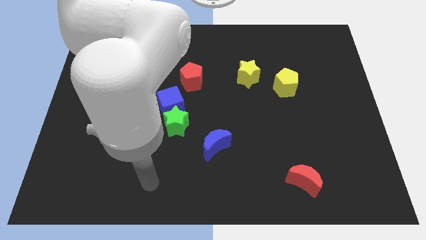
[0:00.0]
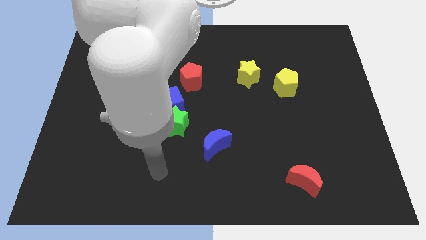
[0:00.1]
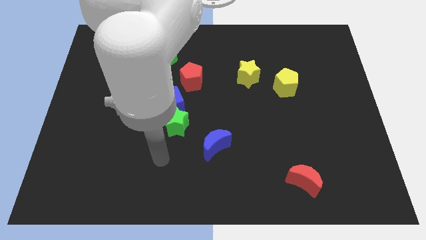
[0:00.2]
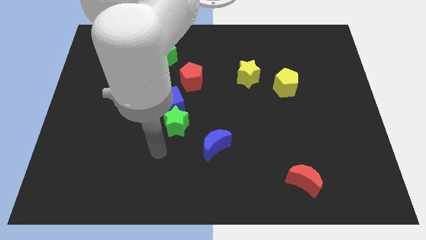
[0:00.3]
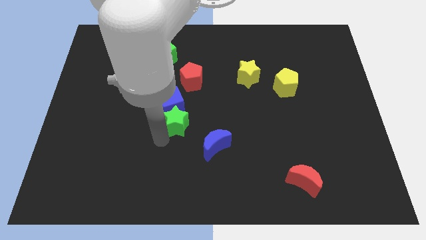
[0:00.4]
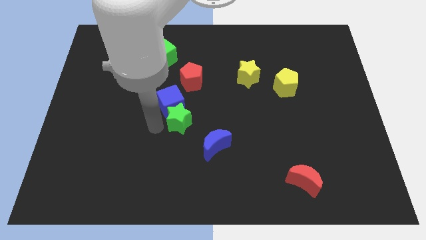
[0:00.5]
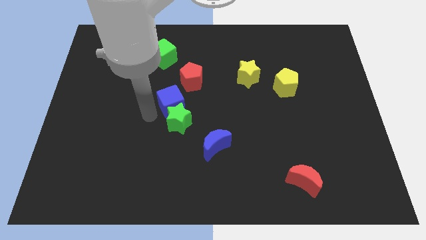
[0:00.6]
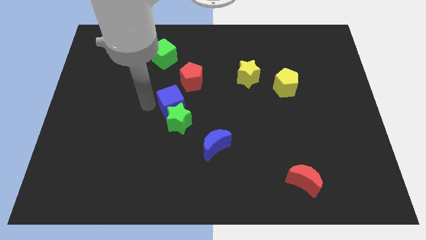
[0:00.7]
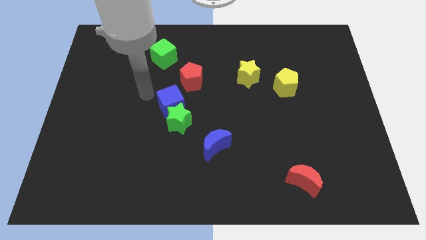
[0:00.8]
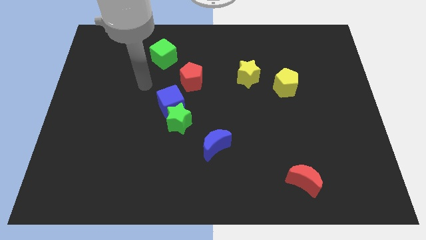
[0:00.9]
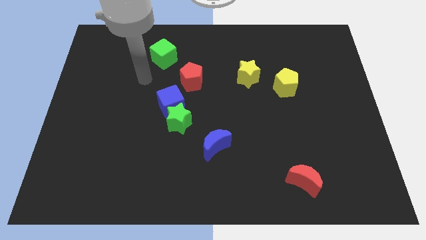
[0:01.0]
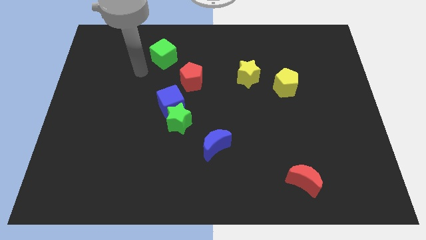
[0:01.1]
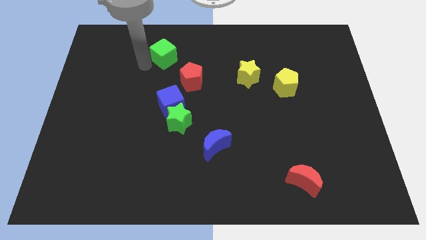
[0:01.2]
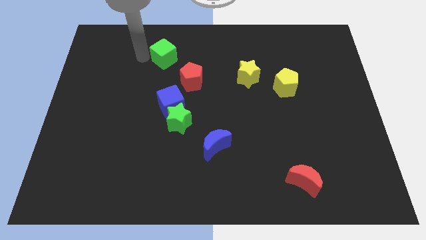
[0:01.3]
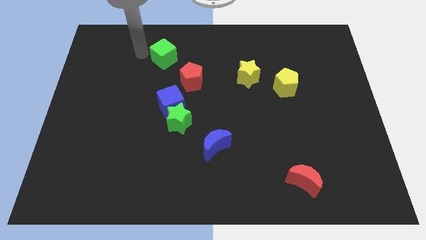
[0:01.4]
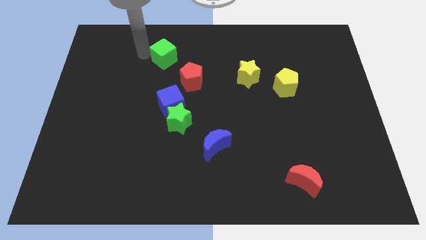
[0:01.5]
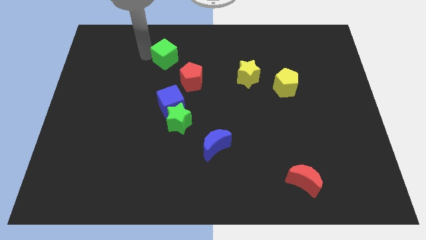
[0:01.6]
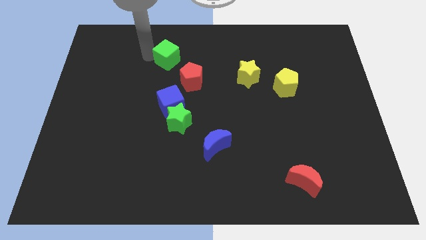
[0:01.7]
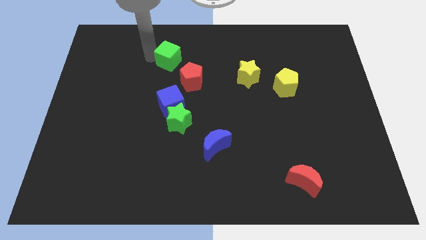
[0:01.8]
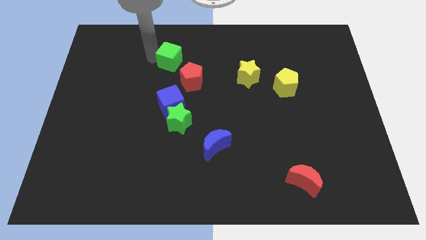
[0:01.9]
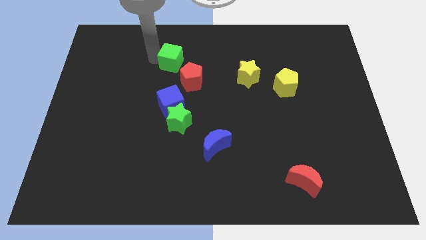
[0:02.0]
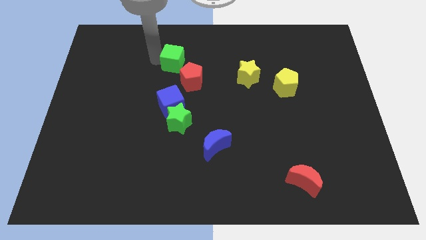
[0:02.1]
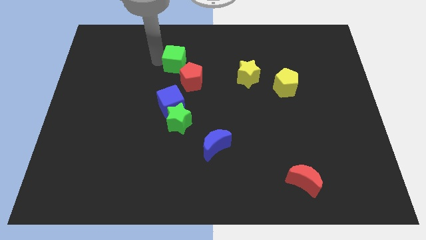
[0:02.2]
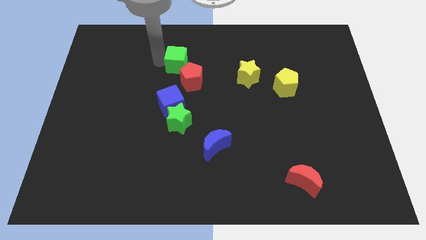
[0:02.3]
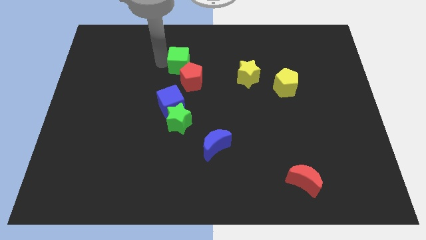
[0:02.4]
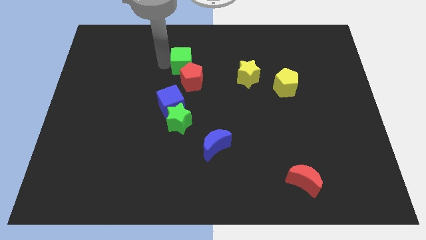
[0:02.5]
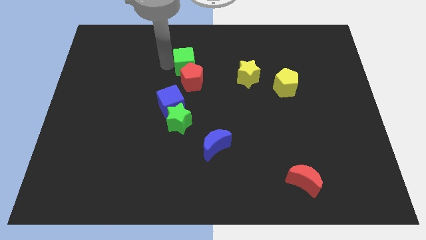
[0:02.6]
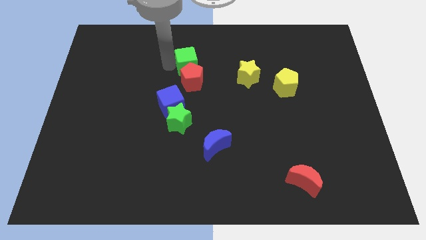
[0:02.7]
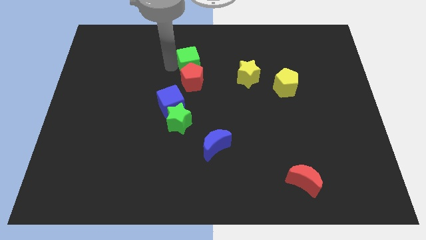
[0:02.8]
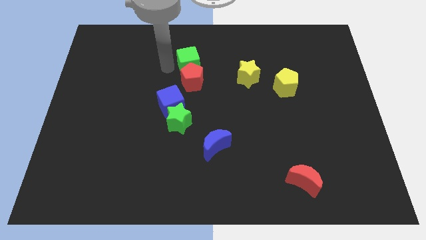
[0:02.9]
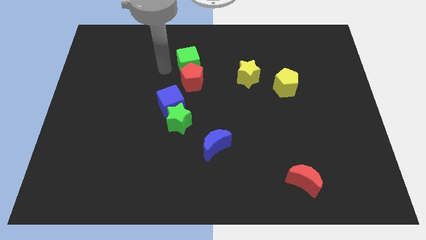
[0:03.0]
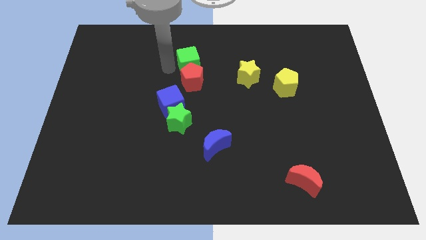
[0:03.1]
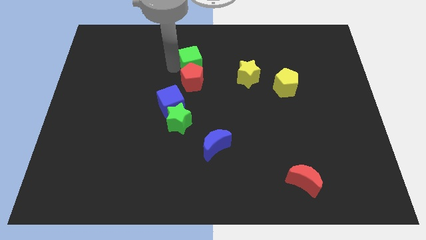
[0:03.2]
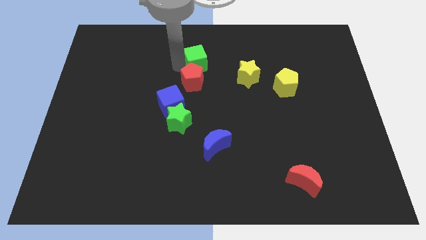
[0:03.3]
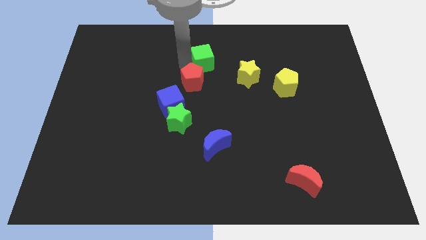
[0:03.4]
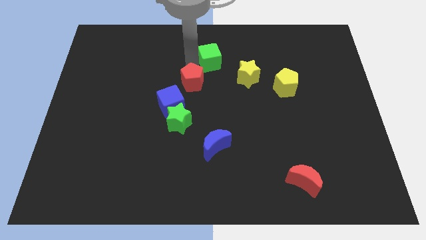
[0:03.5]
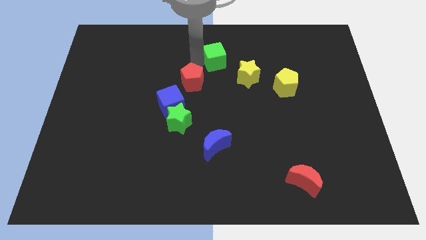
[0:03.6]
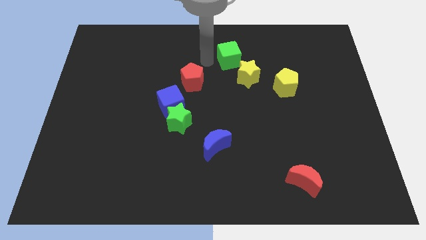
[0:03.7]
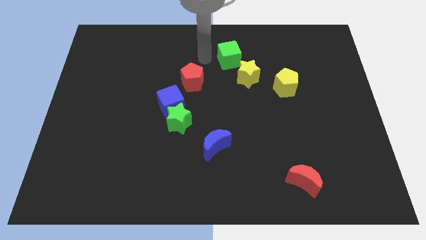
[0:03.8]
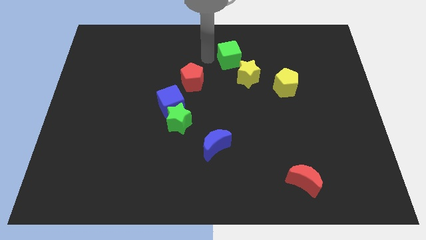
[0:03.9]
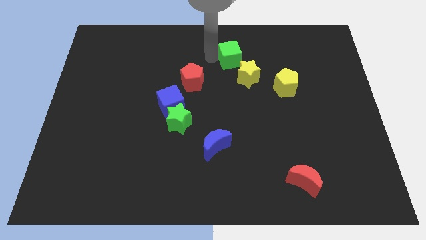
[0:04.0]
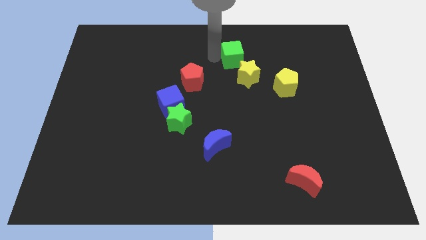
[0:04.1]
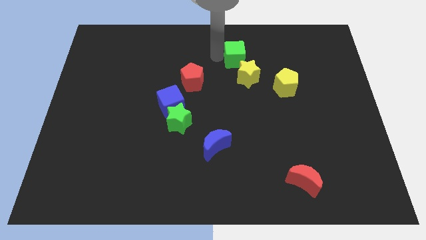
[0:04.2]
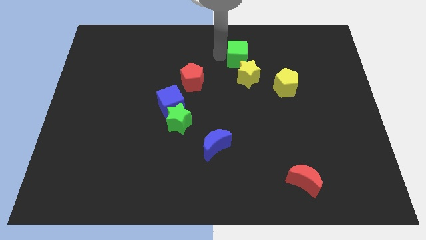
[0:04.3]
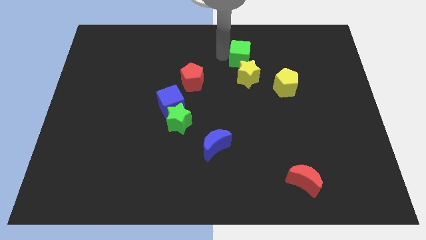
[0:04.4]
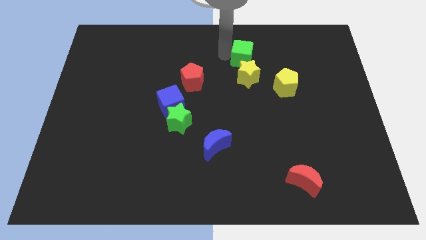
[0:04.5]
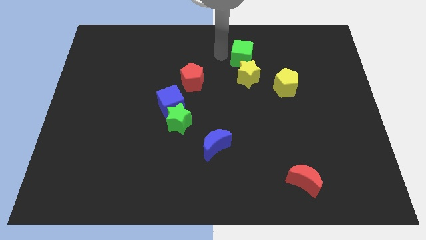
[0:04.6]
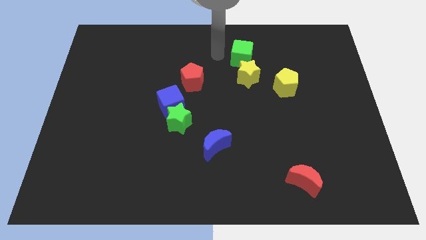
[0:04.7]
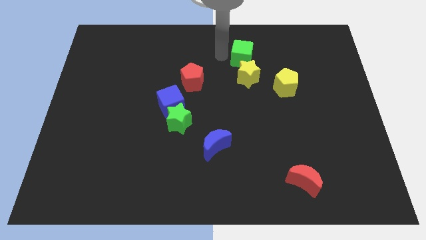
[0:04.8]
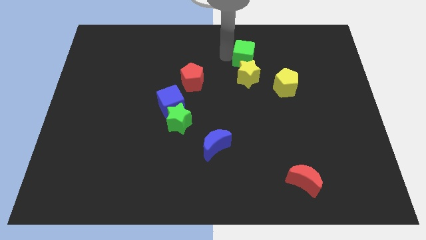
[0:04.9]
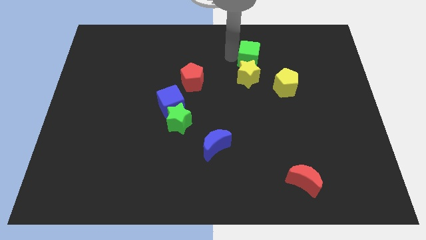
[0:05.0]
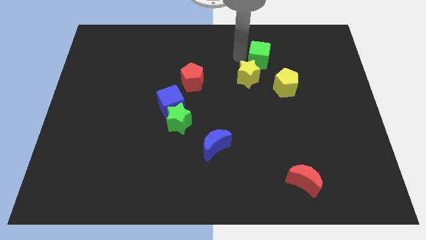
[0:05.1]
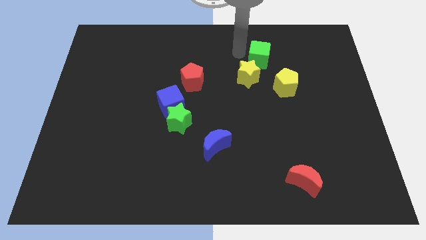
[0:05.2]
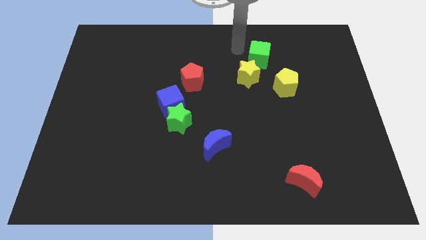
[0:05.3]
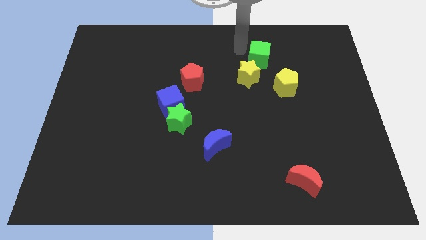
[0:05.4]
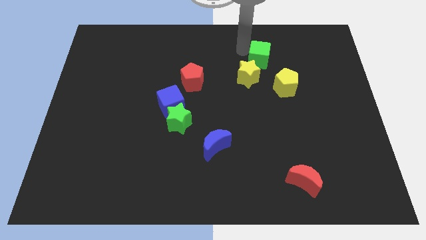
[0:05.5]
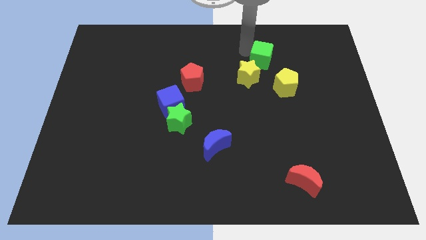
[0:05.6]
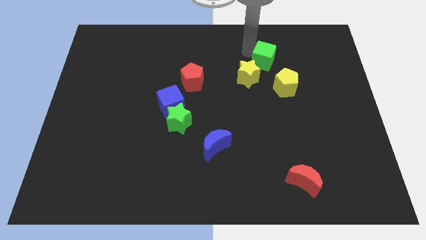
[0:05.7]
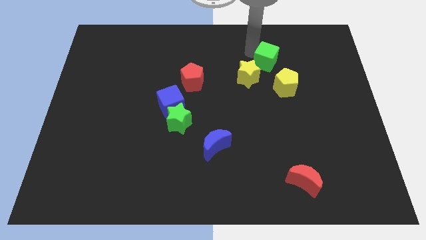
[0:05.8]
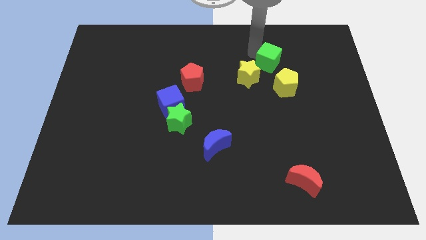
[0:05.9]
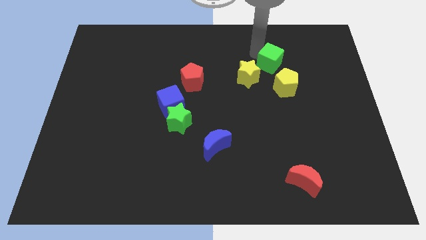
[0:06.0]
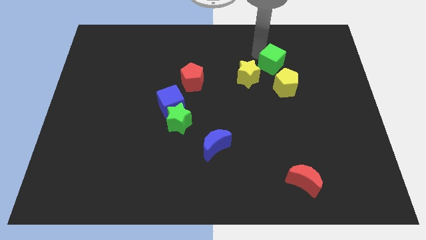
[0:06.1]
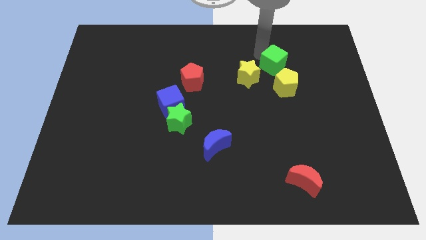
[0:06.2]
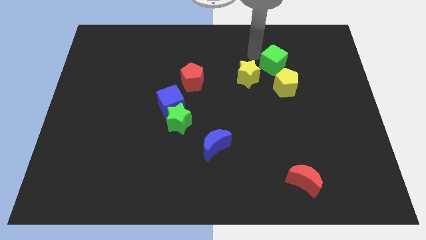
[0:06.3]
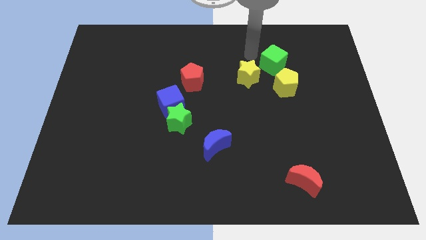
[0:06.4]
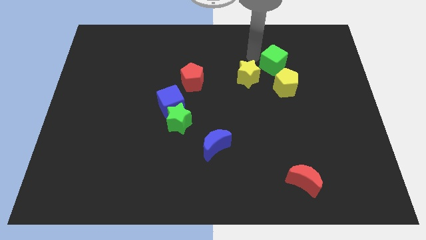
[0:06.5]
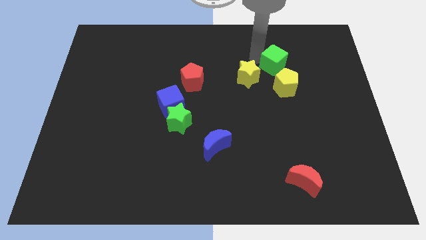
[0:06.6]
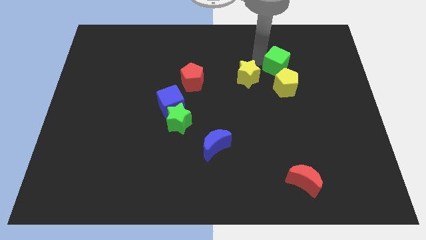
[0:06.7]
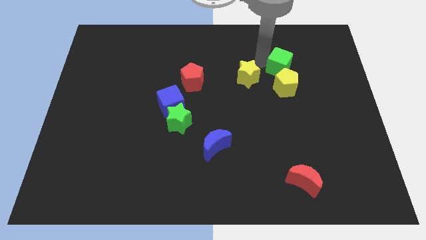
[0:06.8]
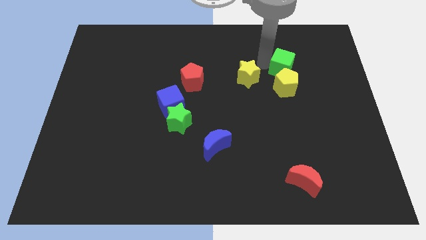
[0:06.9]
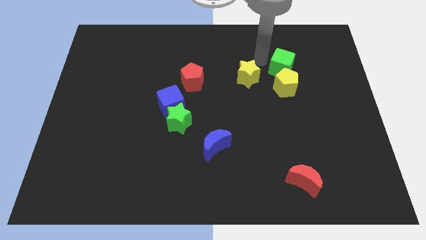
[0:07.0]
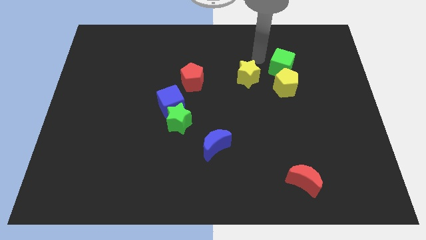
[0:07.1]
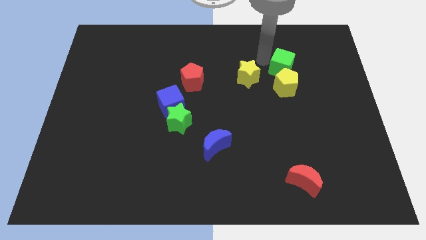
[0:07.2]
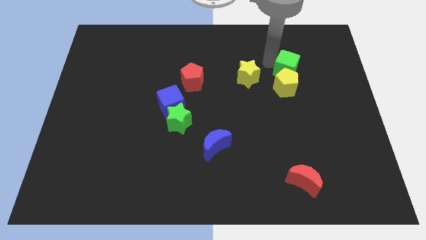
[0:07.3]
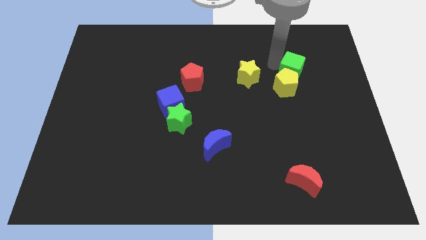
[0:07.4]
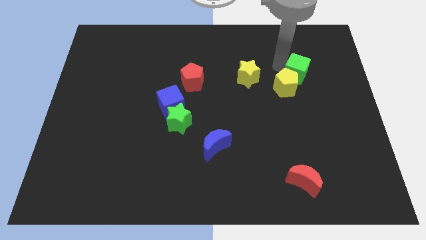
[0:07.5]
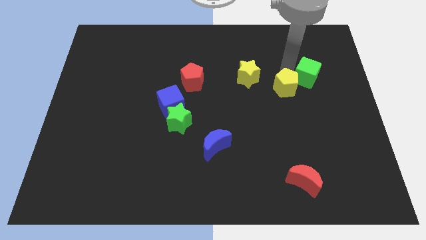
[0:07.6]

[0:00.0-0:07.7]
move the green cube to the right side of the yellow pentagon
